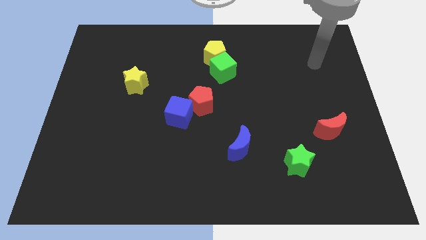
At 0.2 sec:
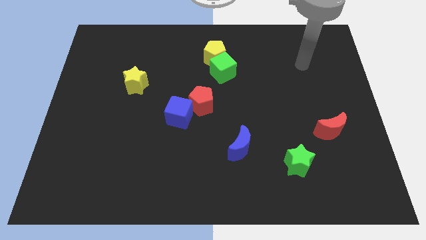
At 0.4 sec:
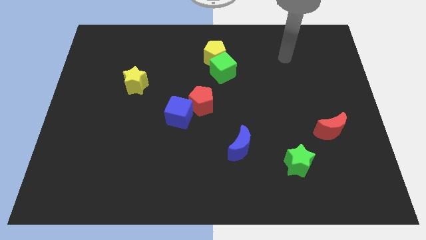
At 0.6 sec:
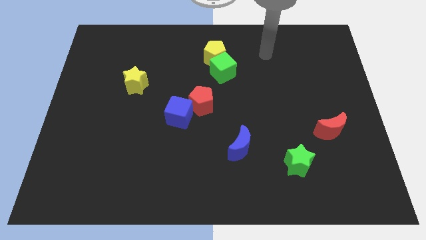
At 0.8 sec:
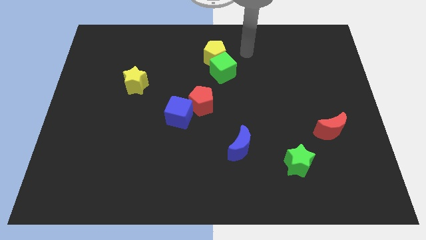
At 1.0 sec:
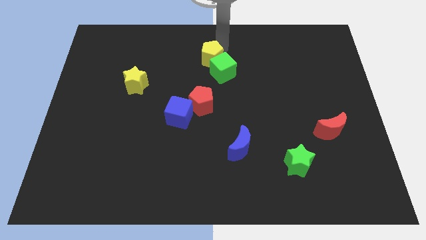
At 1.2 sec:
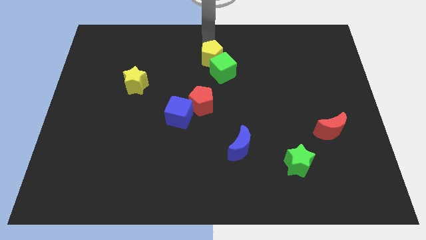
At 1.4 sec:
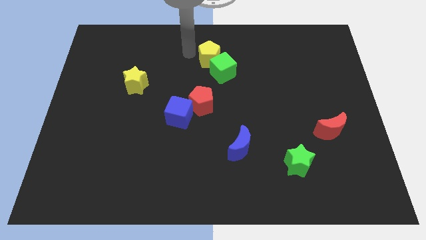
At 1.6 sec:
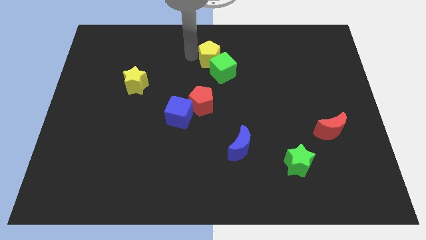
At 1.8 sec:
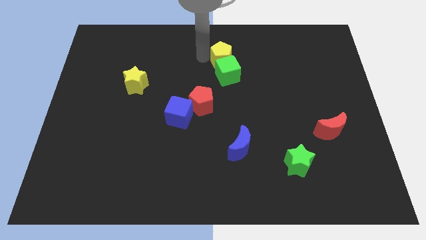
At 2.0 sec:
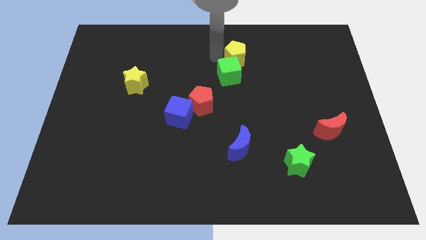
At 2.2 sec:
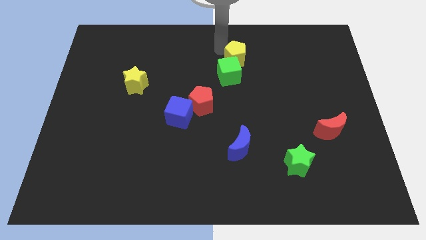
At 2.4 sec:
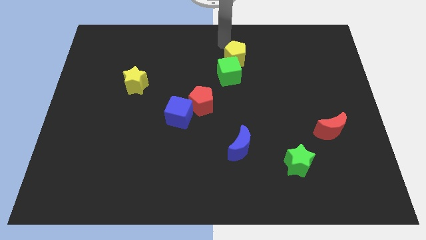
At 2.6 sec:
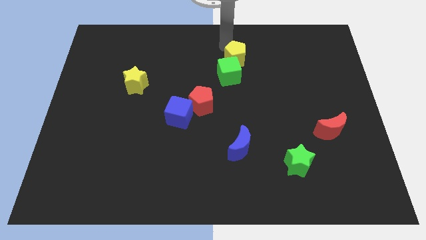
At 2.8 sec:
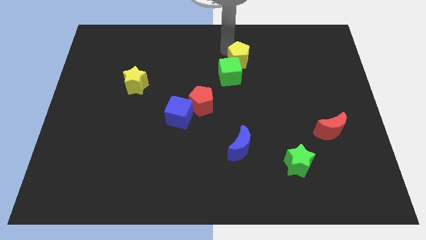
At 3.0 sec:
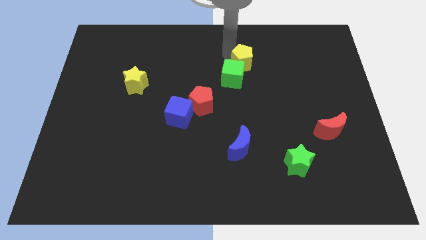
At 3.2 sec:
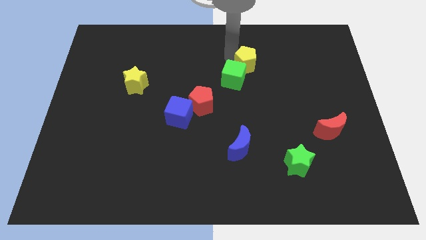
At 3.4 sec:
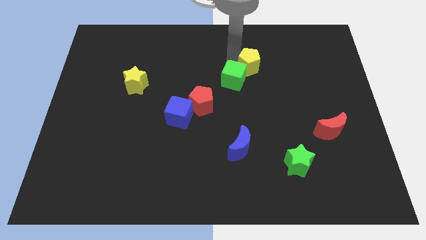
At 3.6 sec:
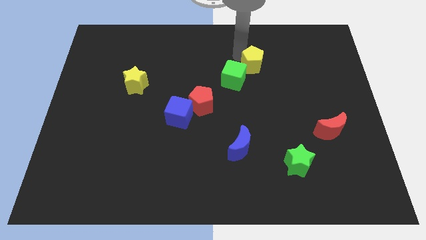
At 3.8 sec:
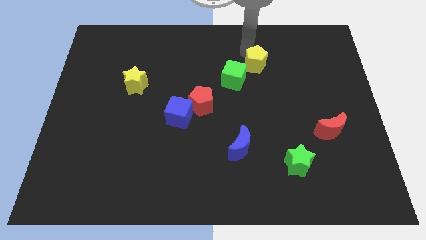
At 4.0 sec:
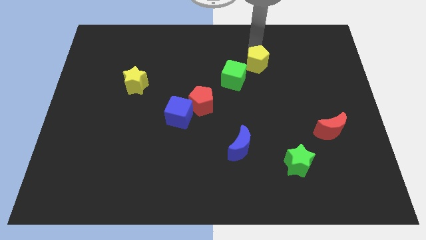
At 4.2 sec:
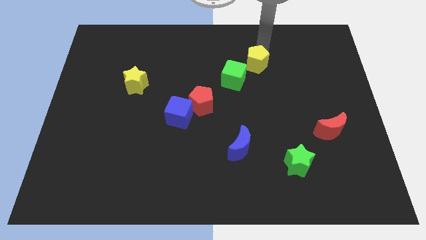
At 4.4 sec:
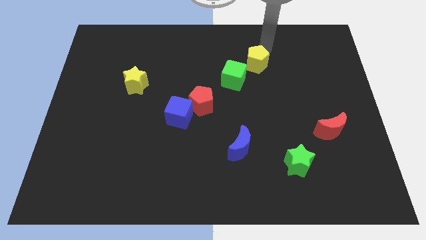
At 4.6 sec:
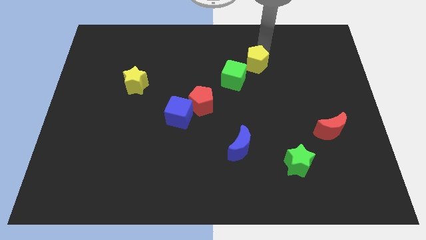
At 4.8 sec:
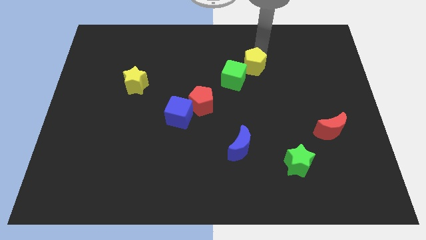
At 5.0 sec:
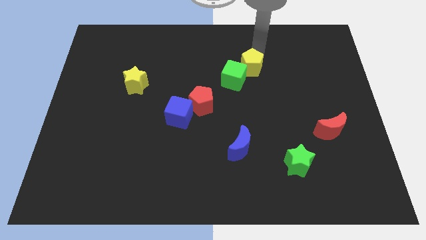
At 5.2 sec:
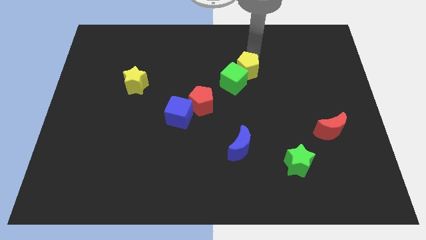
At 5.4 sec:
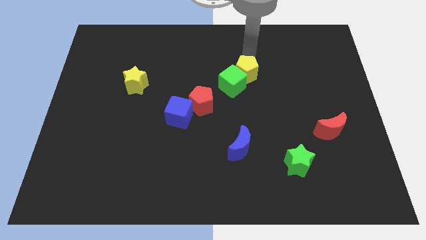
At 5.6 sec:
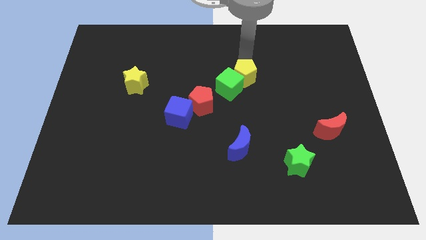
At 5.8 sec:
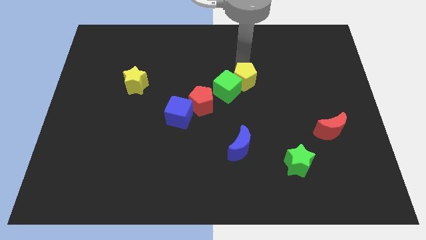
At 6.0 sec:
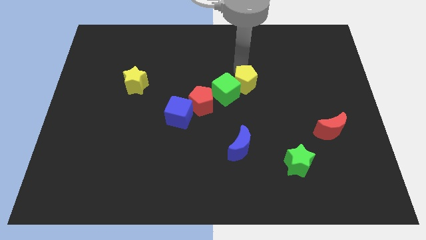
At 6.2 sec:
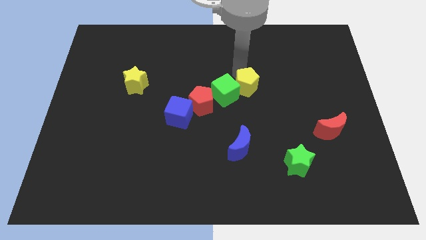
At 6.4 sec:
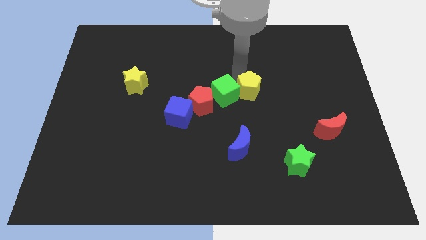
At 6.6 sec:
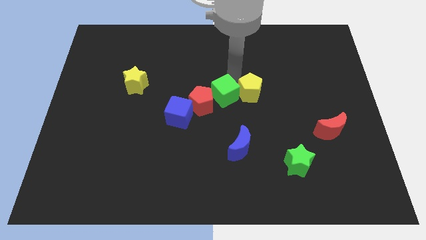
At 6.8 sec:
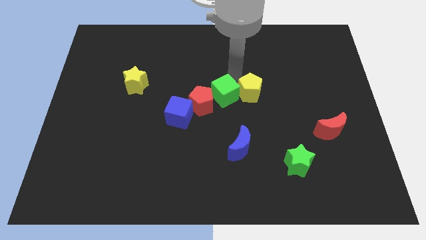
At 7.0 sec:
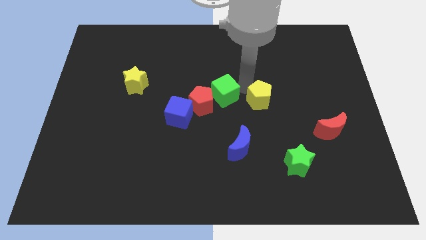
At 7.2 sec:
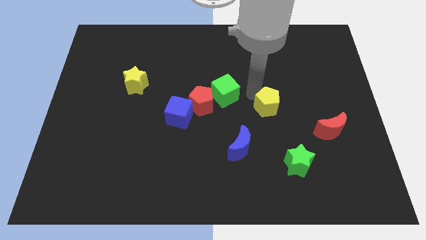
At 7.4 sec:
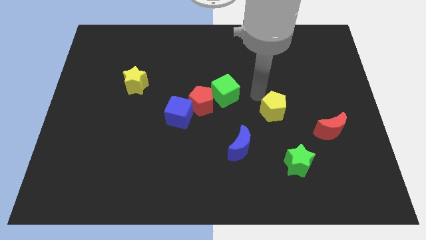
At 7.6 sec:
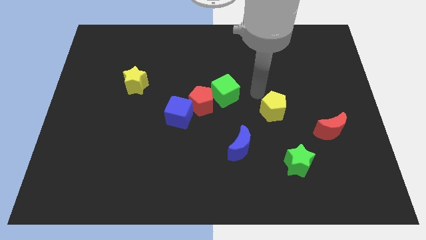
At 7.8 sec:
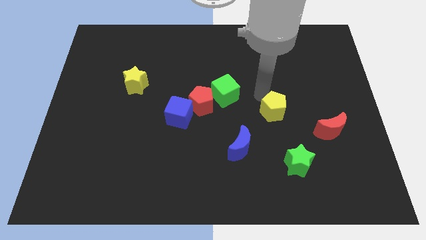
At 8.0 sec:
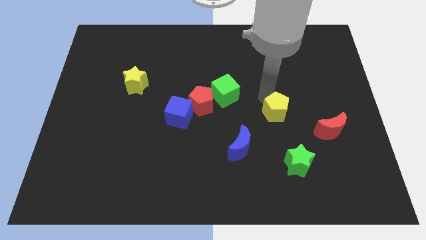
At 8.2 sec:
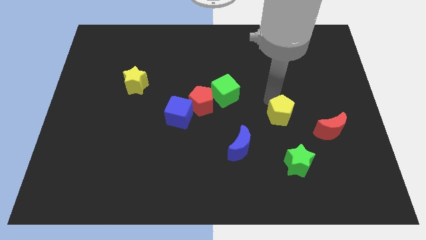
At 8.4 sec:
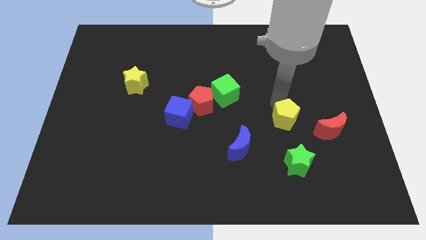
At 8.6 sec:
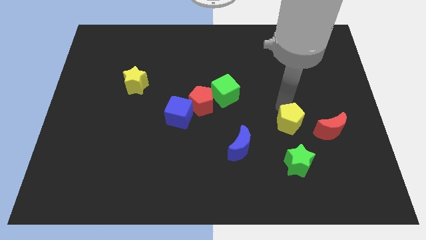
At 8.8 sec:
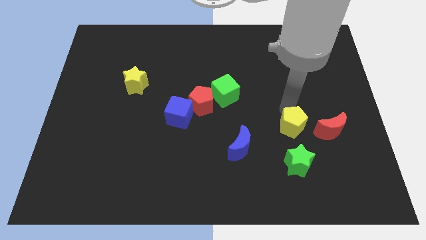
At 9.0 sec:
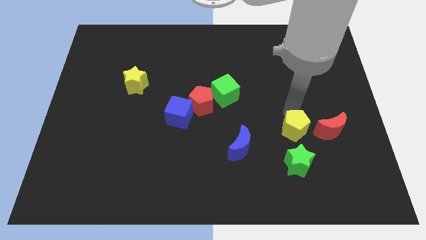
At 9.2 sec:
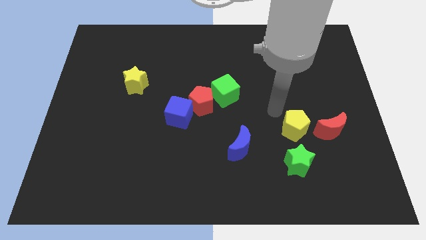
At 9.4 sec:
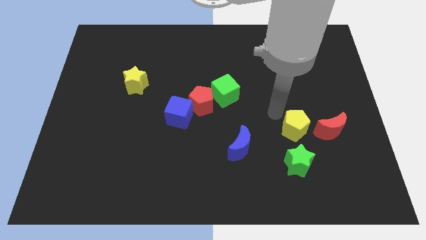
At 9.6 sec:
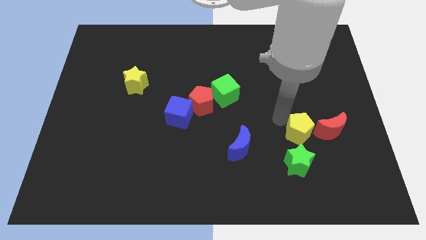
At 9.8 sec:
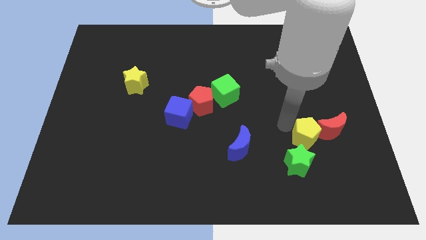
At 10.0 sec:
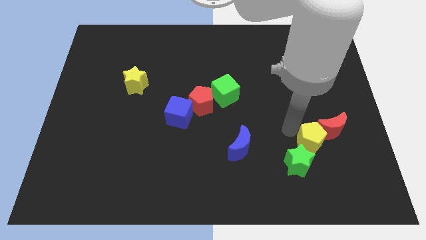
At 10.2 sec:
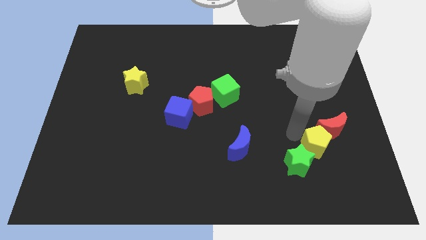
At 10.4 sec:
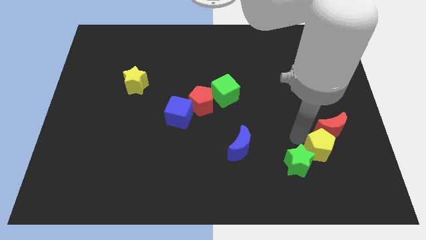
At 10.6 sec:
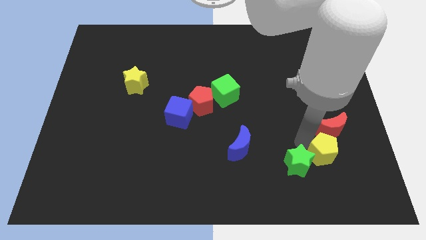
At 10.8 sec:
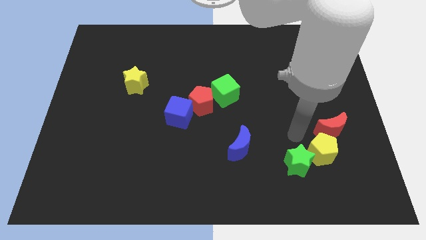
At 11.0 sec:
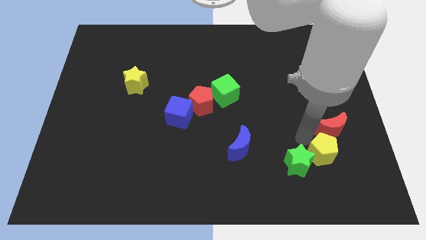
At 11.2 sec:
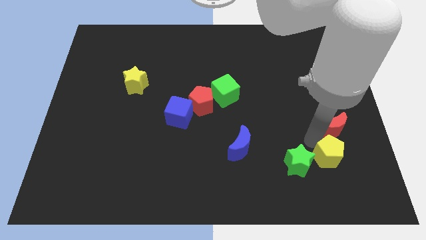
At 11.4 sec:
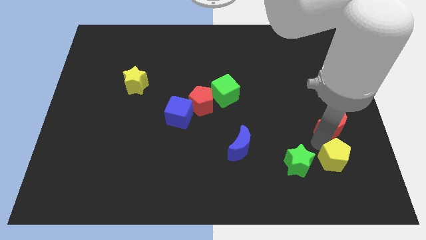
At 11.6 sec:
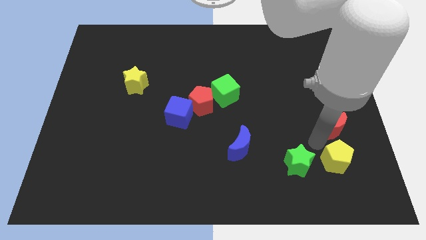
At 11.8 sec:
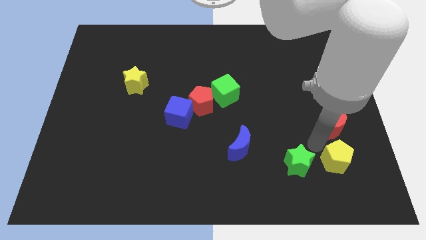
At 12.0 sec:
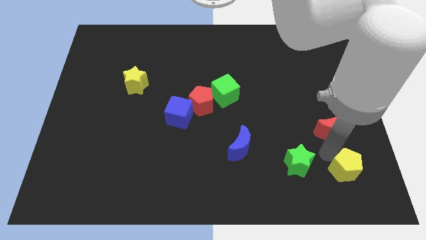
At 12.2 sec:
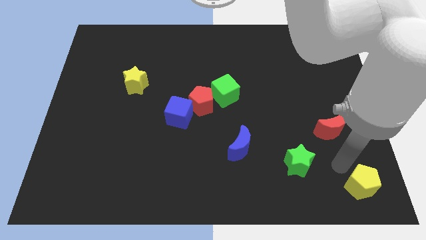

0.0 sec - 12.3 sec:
push the yellow pentagon to the lower right corner
